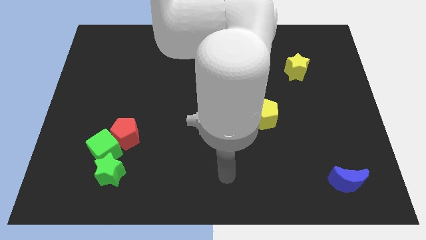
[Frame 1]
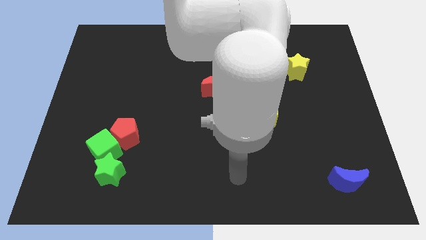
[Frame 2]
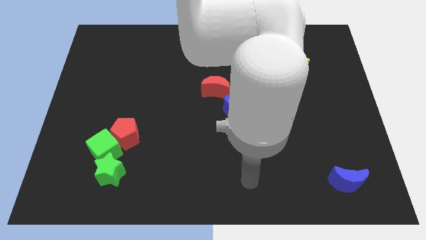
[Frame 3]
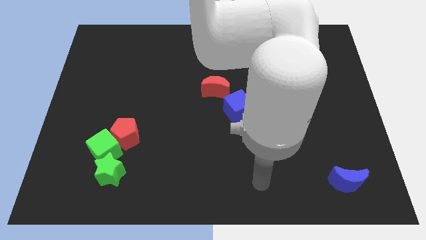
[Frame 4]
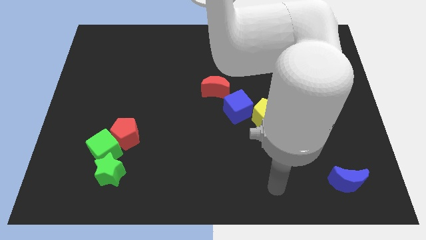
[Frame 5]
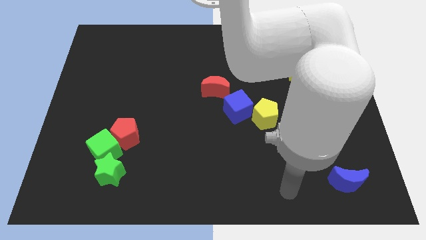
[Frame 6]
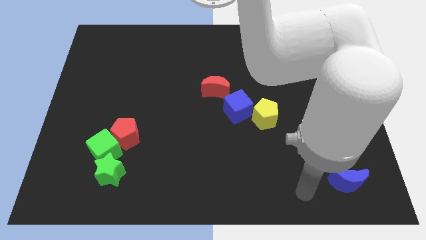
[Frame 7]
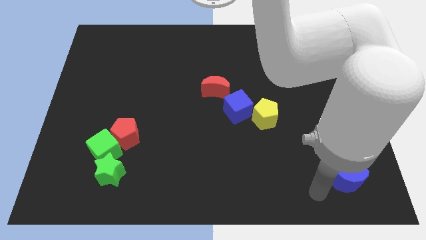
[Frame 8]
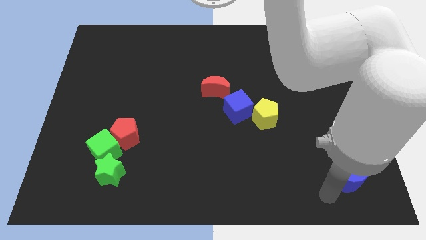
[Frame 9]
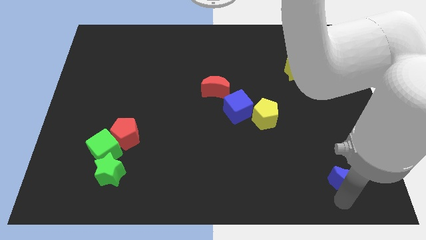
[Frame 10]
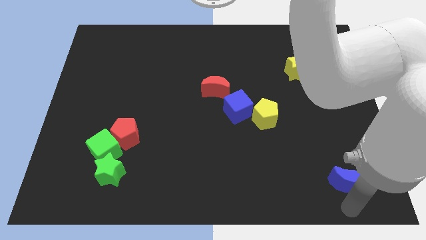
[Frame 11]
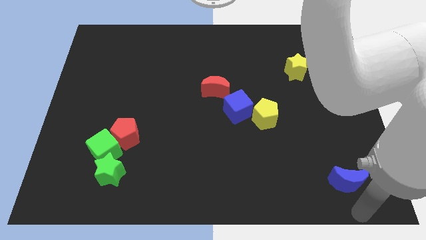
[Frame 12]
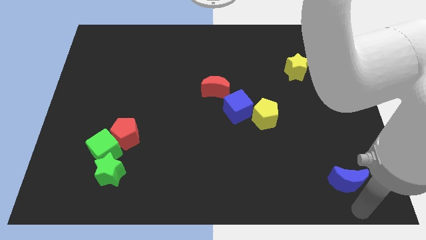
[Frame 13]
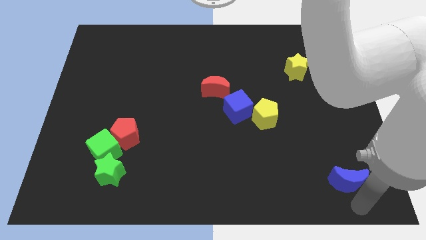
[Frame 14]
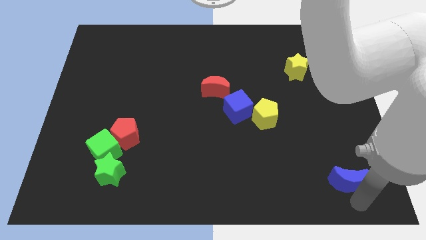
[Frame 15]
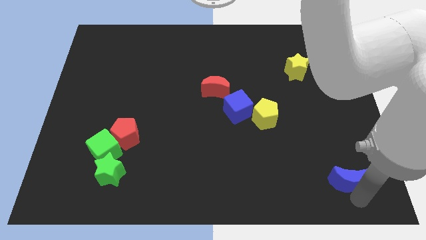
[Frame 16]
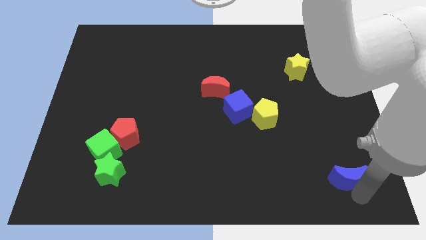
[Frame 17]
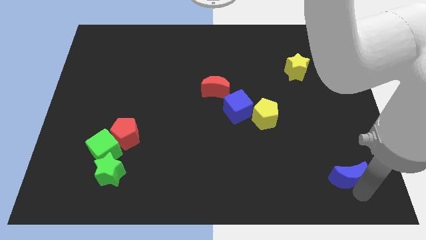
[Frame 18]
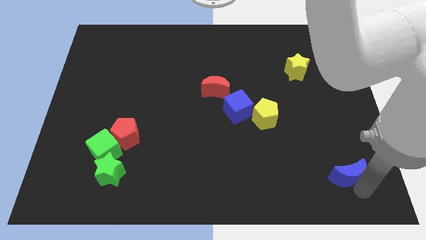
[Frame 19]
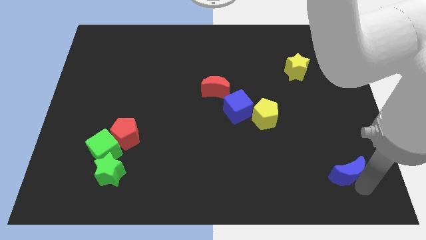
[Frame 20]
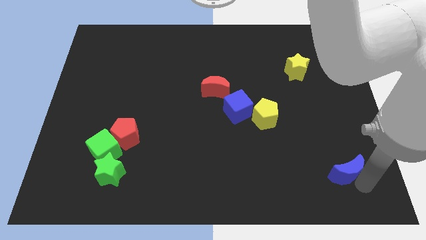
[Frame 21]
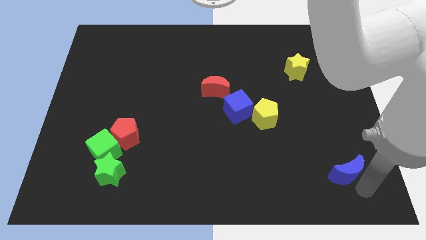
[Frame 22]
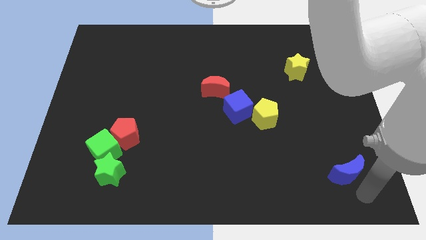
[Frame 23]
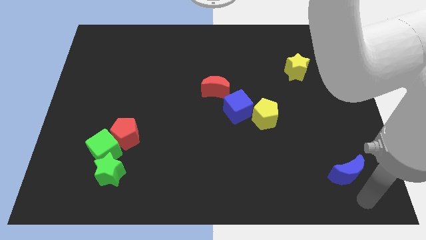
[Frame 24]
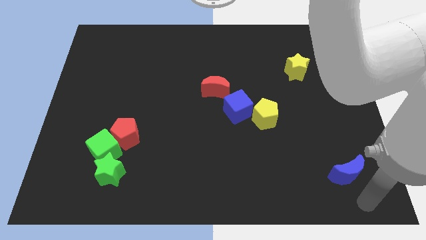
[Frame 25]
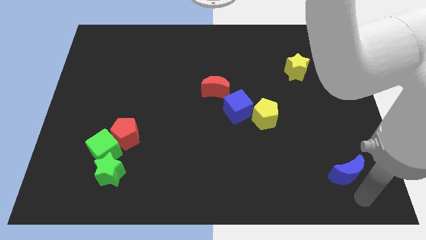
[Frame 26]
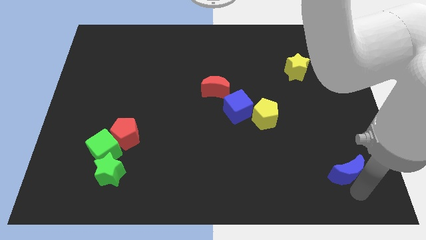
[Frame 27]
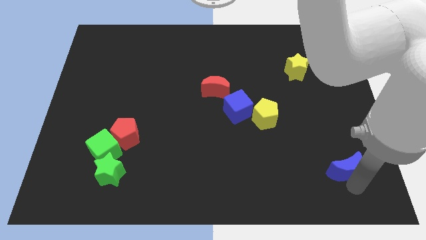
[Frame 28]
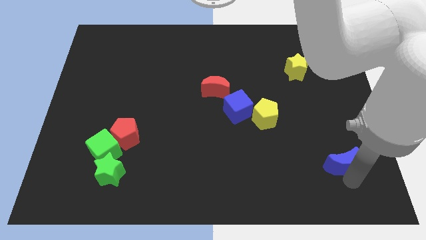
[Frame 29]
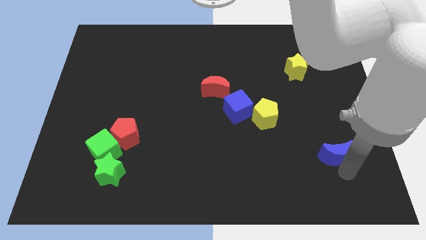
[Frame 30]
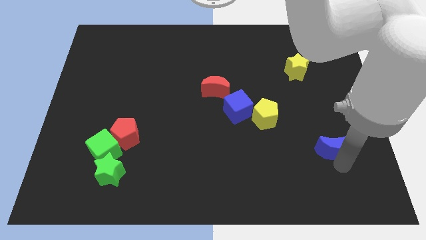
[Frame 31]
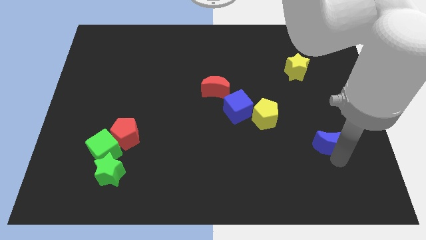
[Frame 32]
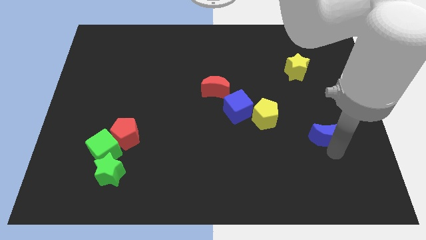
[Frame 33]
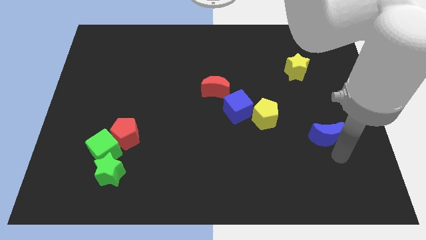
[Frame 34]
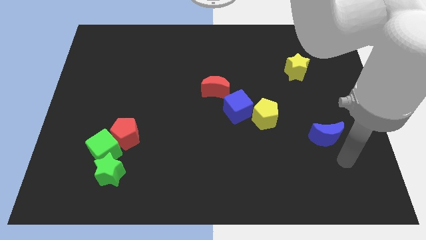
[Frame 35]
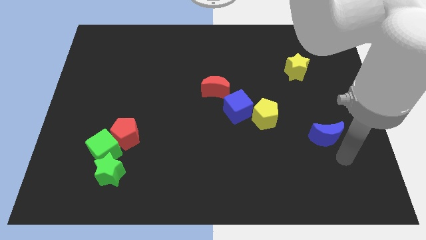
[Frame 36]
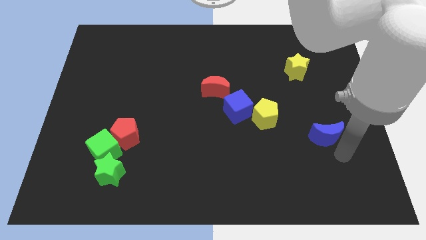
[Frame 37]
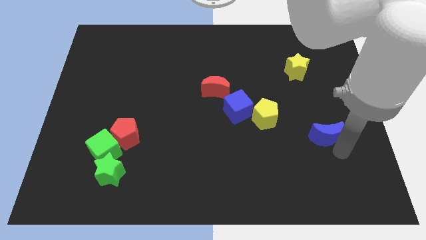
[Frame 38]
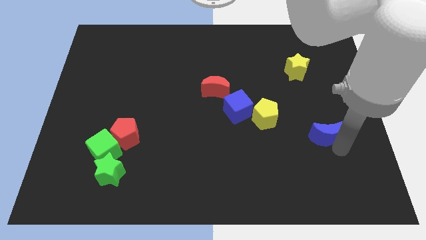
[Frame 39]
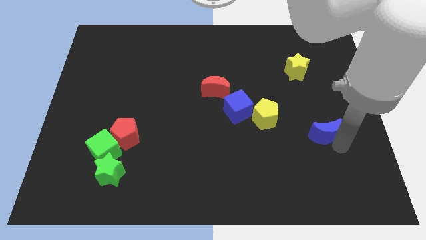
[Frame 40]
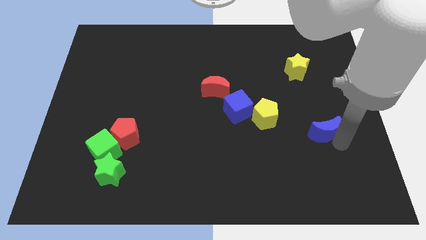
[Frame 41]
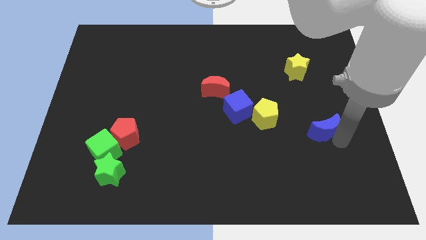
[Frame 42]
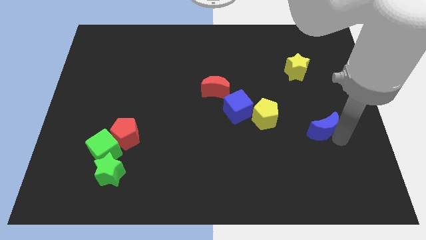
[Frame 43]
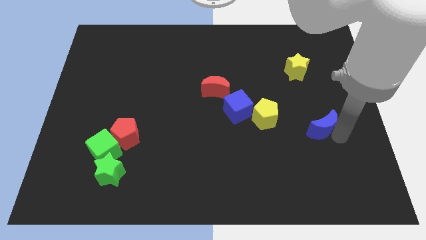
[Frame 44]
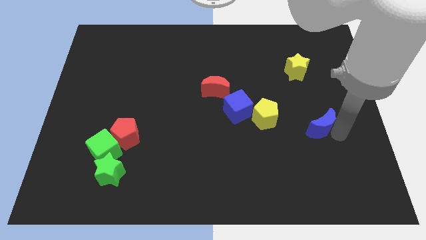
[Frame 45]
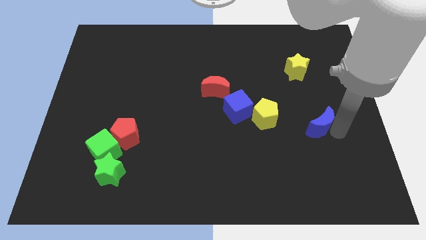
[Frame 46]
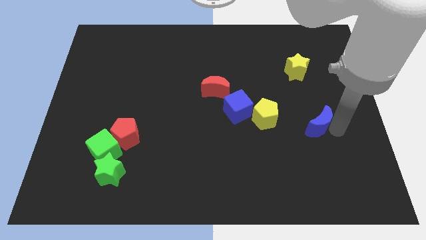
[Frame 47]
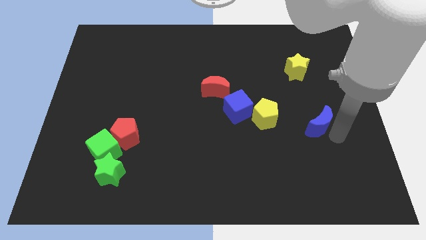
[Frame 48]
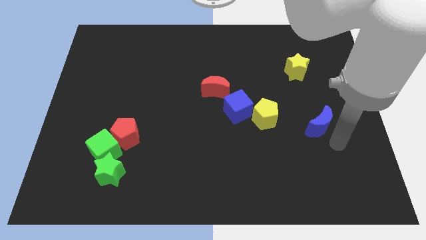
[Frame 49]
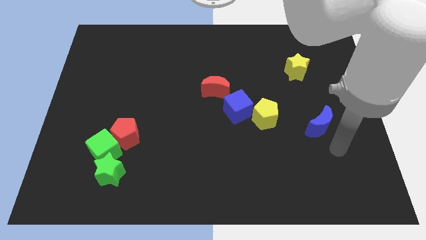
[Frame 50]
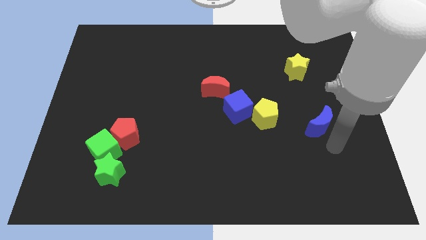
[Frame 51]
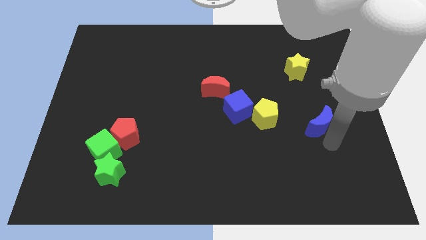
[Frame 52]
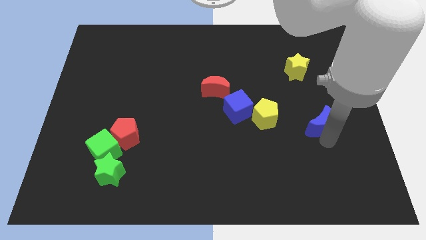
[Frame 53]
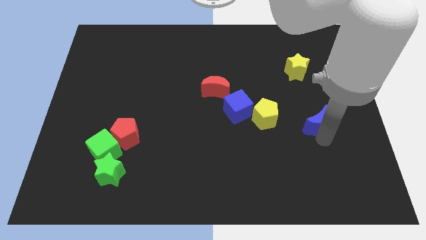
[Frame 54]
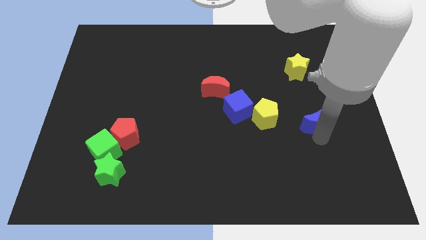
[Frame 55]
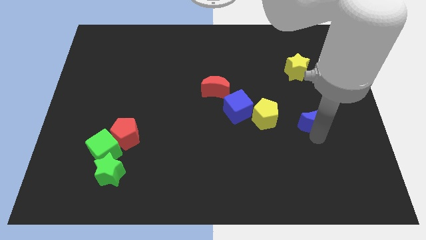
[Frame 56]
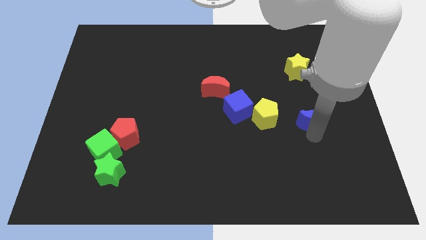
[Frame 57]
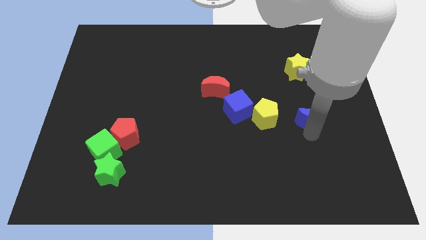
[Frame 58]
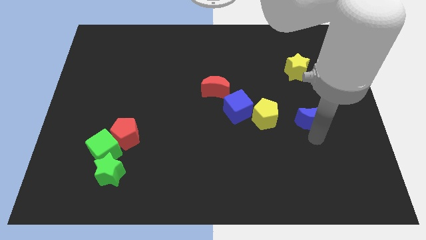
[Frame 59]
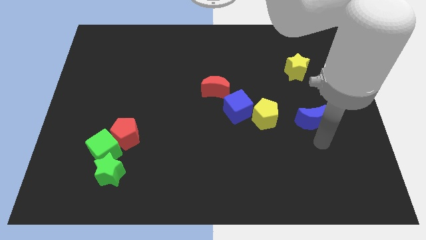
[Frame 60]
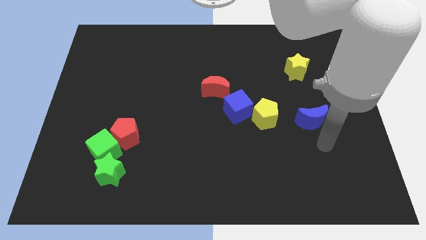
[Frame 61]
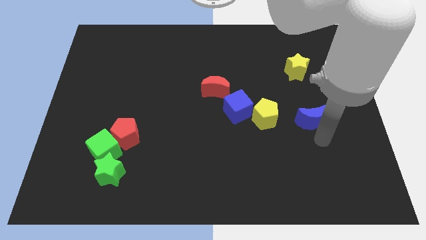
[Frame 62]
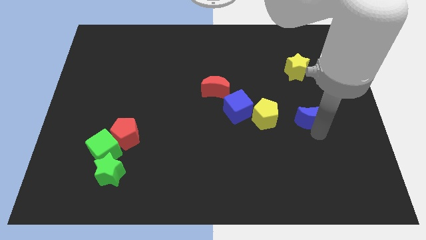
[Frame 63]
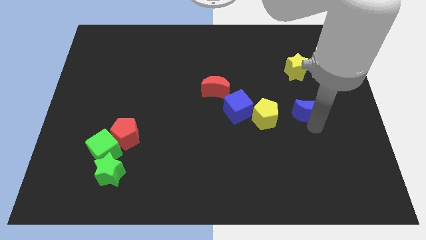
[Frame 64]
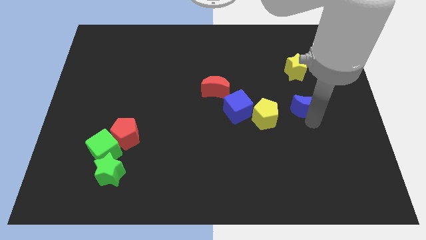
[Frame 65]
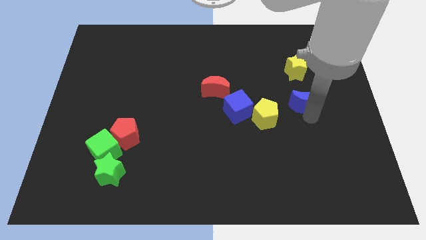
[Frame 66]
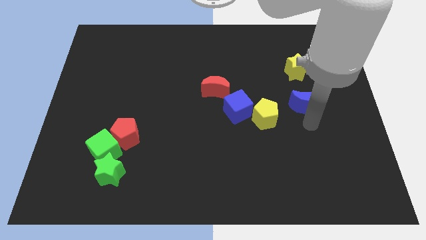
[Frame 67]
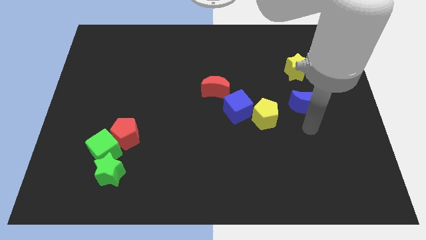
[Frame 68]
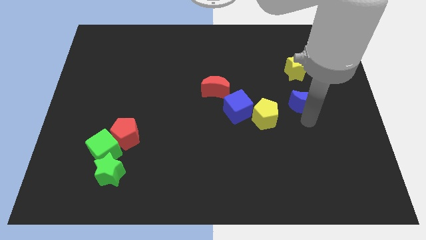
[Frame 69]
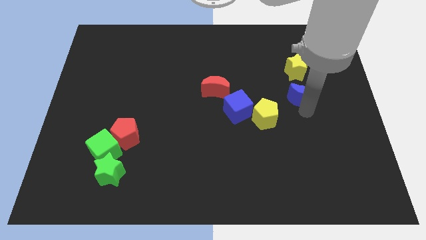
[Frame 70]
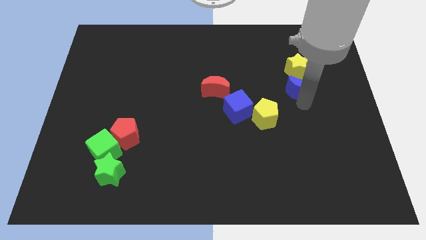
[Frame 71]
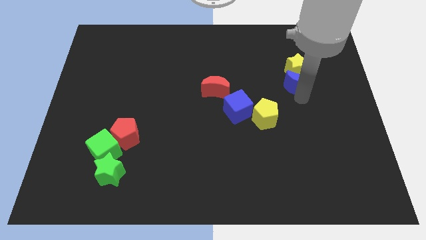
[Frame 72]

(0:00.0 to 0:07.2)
put the blue moon to the yellow star

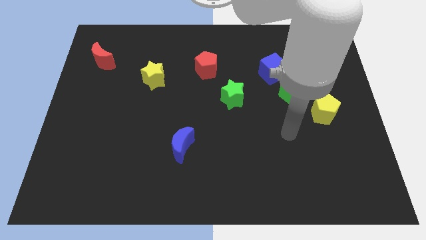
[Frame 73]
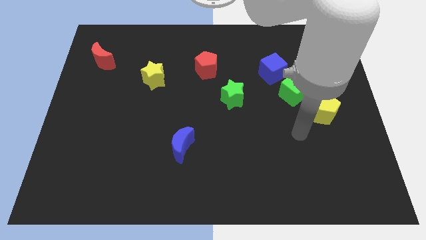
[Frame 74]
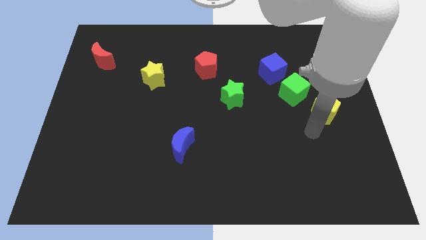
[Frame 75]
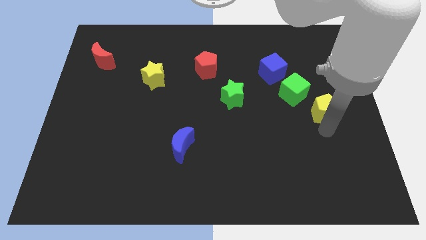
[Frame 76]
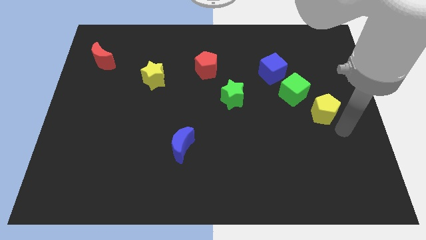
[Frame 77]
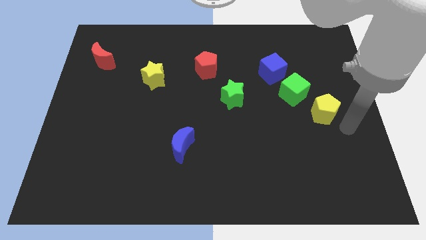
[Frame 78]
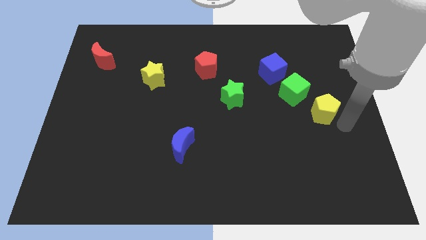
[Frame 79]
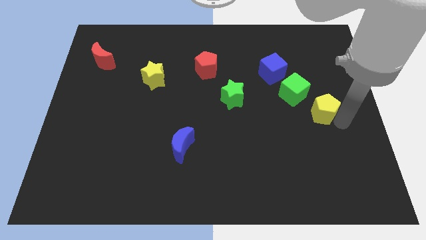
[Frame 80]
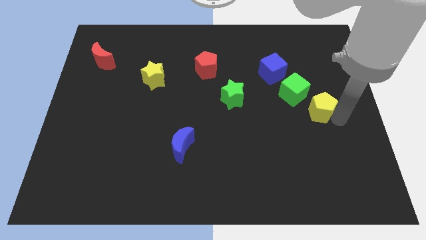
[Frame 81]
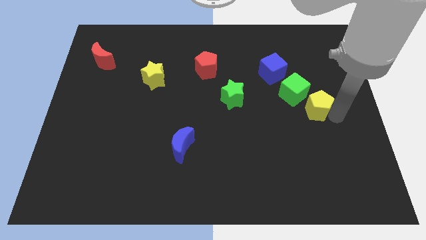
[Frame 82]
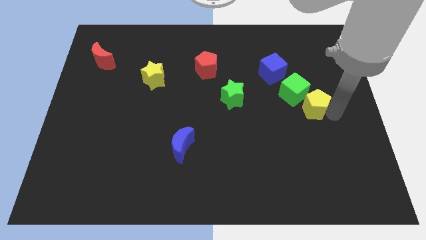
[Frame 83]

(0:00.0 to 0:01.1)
move the yellow pentagon next to the green cube
